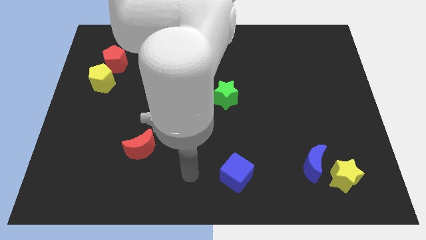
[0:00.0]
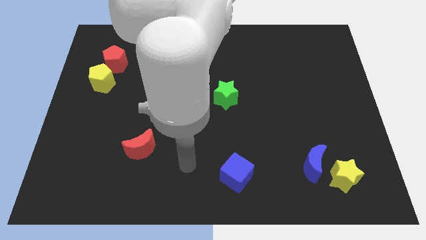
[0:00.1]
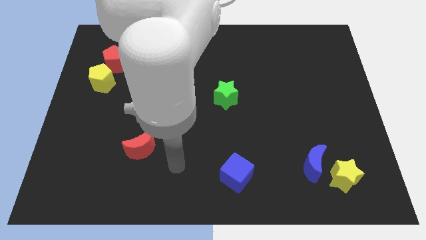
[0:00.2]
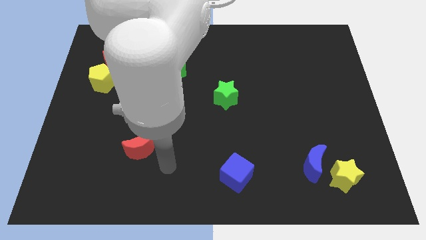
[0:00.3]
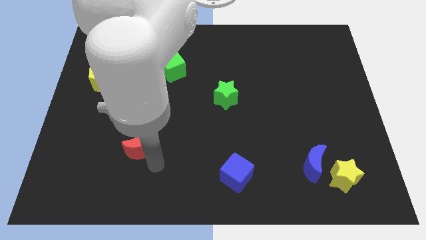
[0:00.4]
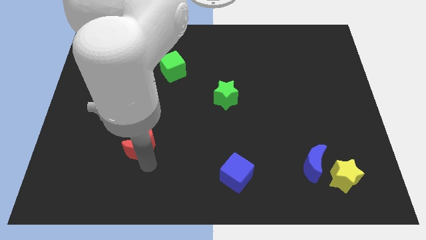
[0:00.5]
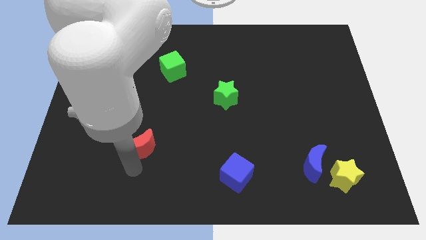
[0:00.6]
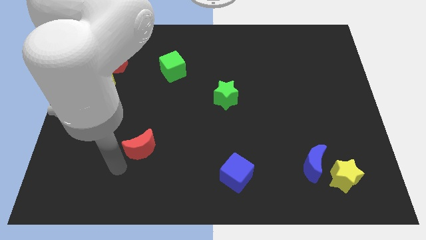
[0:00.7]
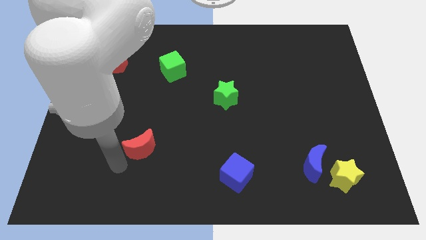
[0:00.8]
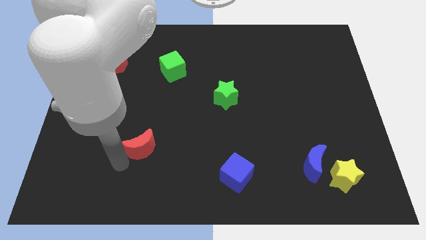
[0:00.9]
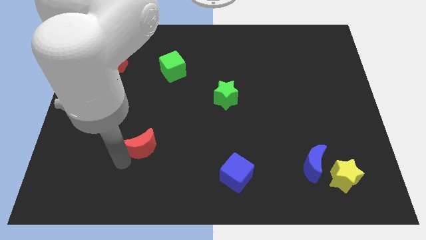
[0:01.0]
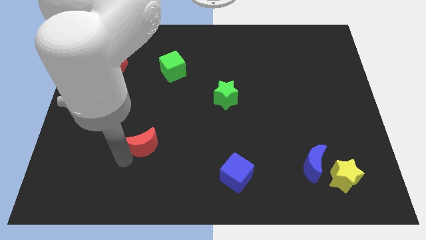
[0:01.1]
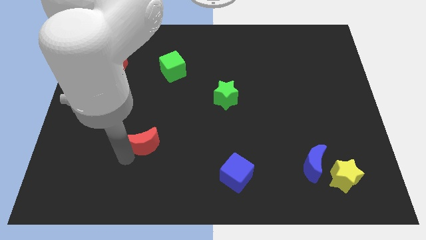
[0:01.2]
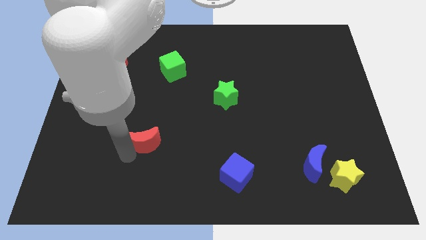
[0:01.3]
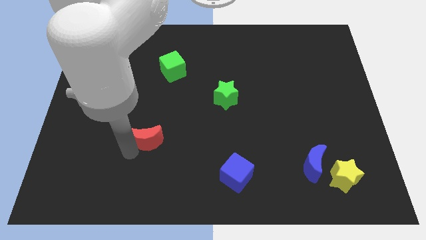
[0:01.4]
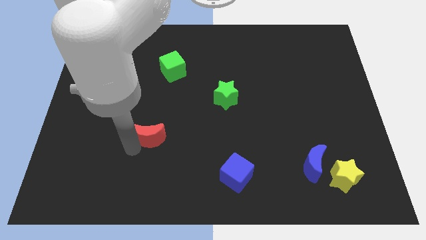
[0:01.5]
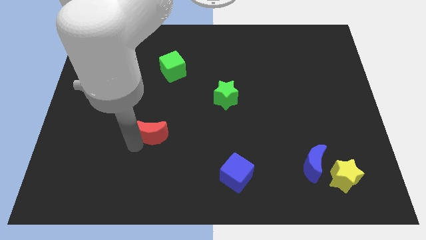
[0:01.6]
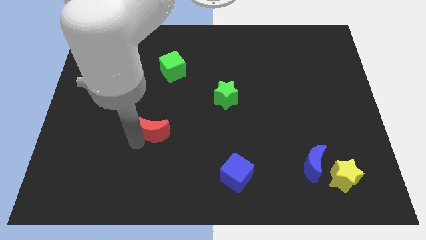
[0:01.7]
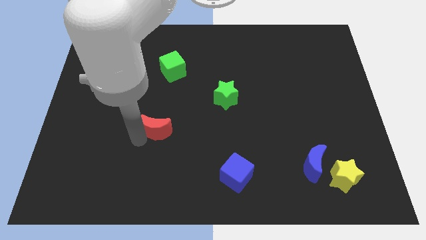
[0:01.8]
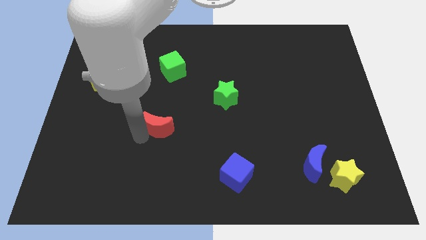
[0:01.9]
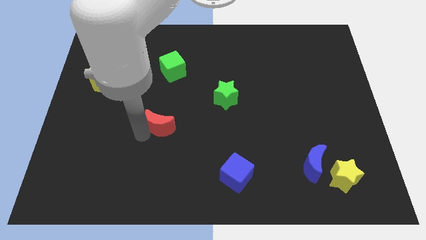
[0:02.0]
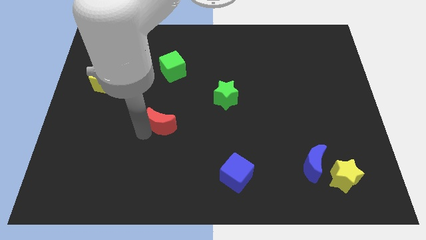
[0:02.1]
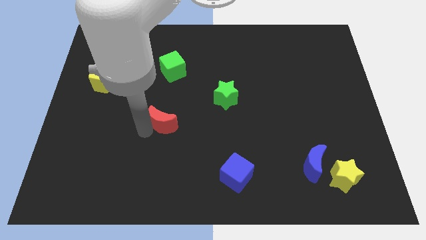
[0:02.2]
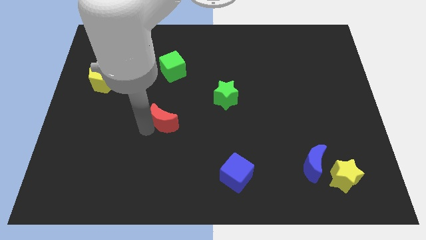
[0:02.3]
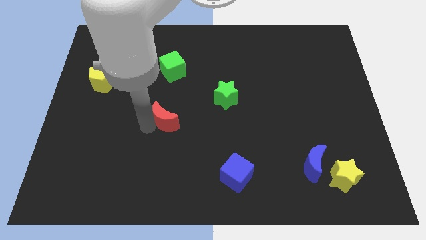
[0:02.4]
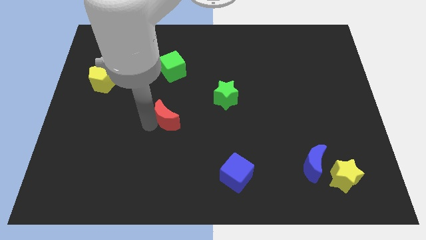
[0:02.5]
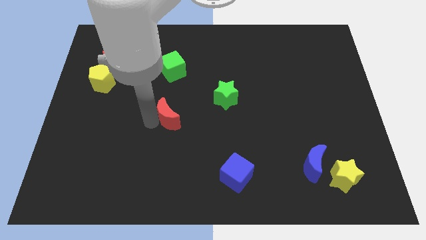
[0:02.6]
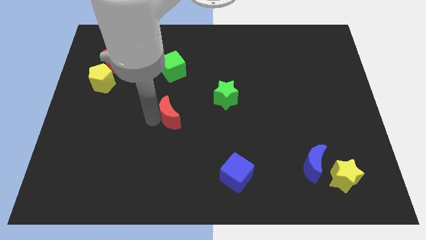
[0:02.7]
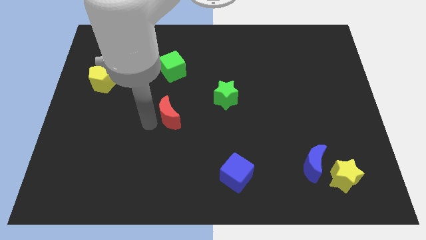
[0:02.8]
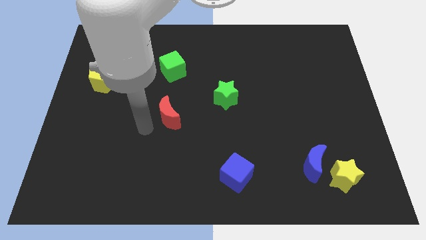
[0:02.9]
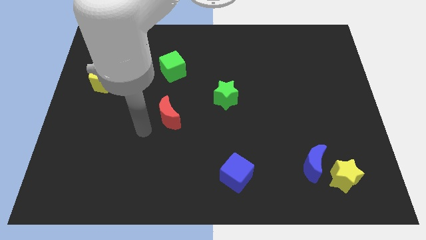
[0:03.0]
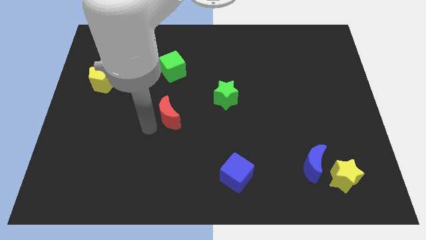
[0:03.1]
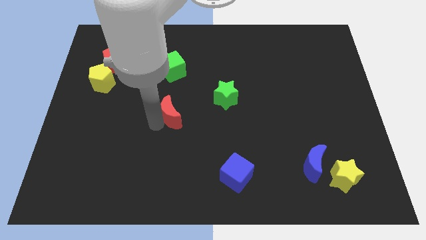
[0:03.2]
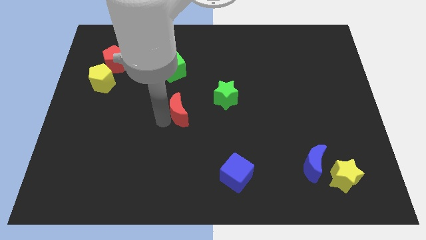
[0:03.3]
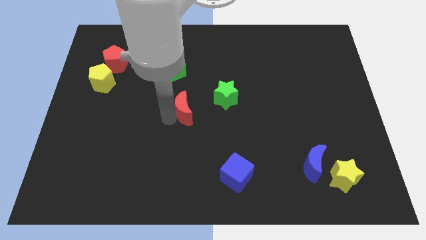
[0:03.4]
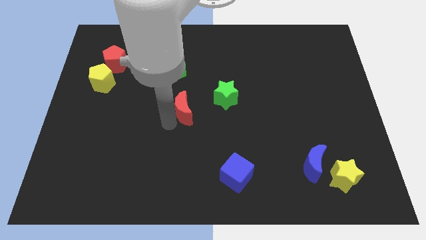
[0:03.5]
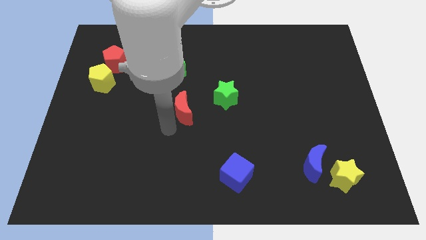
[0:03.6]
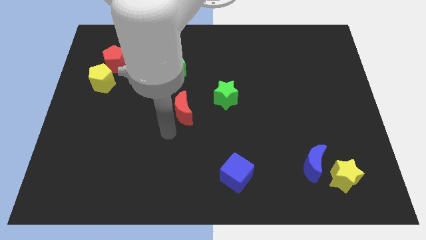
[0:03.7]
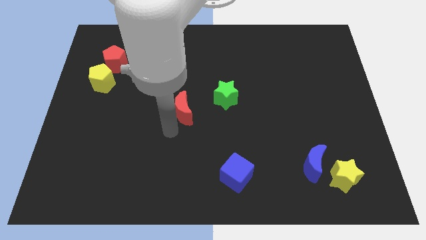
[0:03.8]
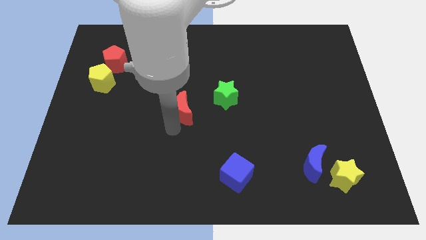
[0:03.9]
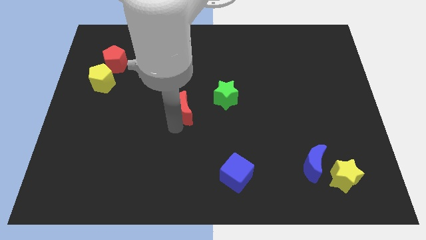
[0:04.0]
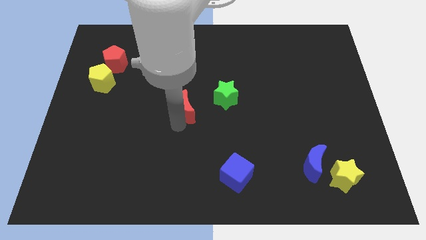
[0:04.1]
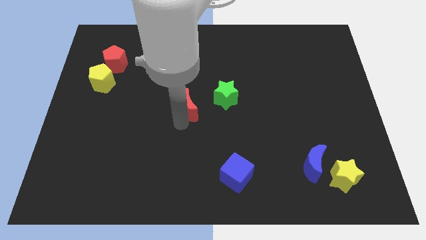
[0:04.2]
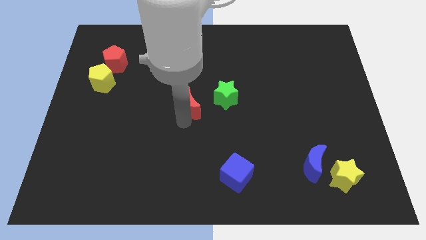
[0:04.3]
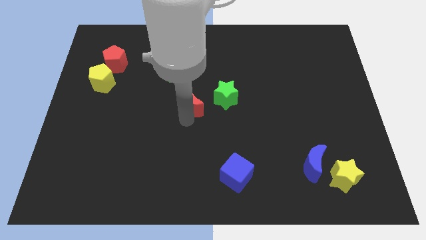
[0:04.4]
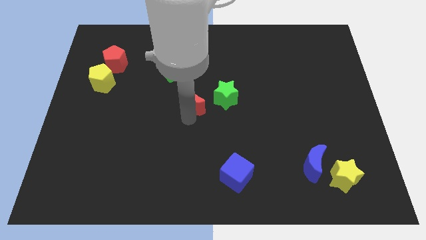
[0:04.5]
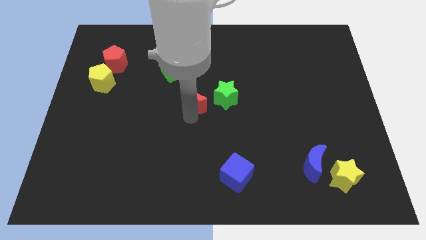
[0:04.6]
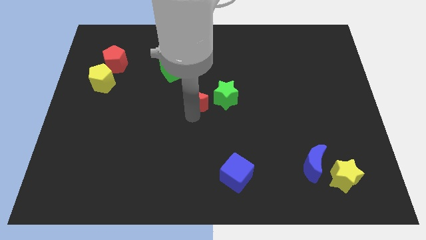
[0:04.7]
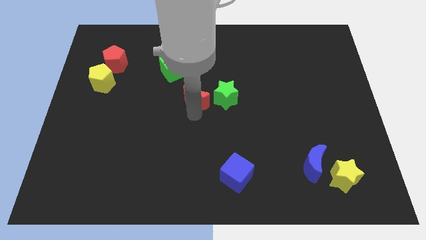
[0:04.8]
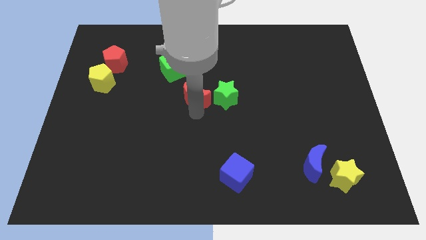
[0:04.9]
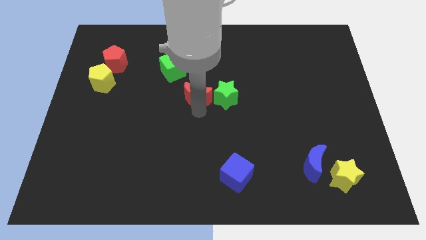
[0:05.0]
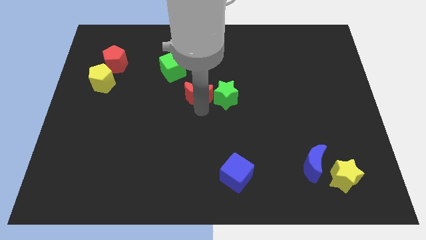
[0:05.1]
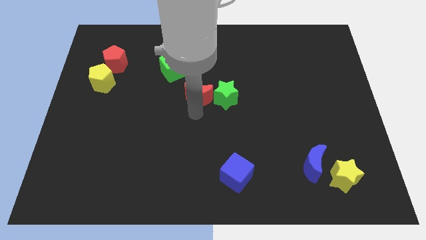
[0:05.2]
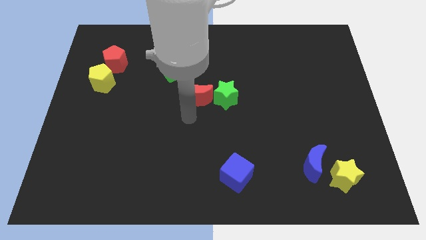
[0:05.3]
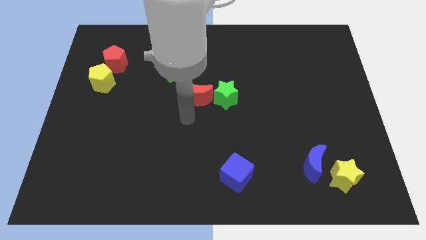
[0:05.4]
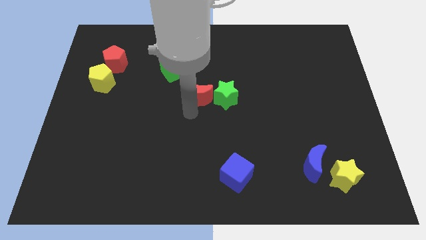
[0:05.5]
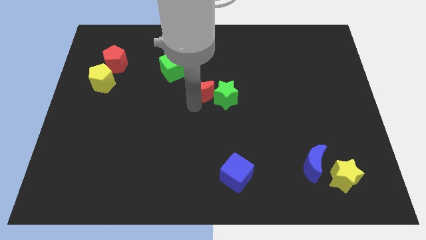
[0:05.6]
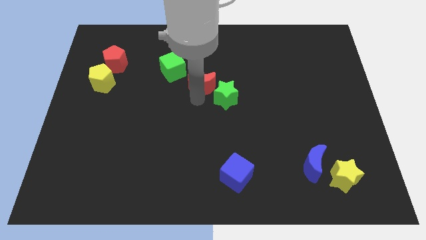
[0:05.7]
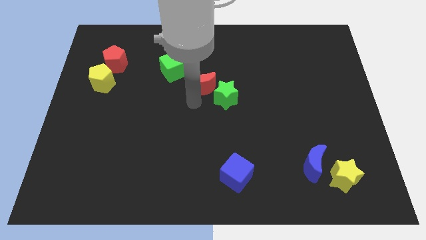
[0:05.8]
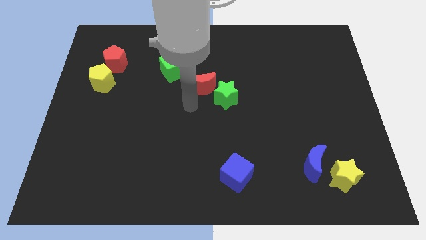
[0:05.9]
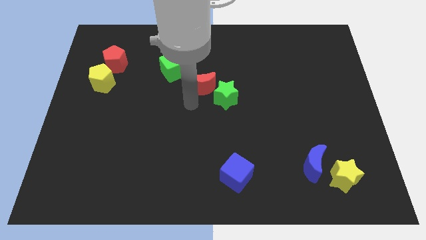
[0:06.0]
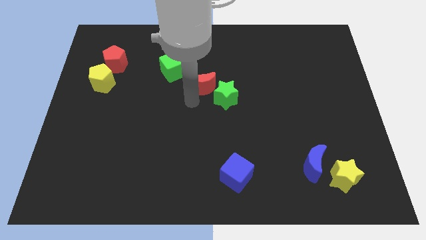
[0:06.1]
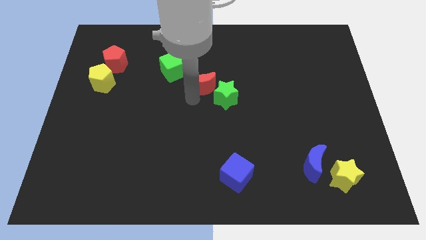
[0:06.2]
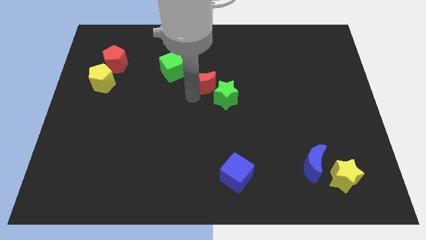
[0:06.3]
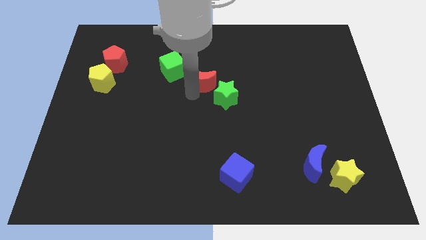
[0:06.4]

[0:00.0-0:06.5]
move the red moon to the right side of the green cube

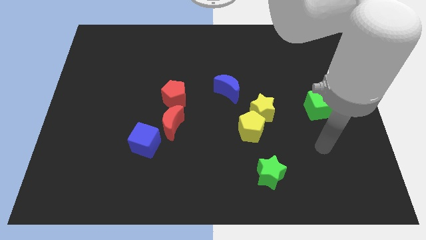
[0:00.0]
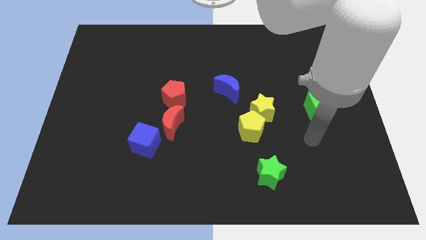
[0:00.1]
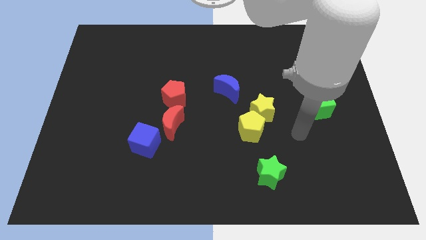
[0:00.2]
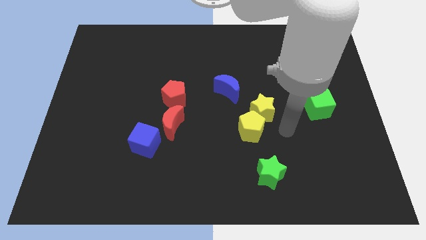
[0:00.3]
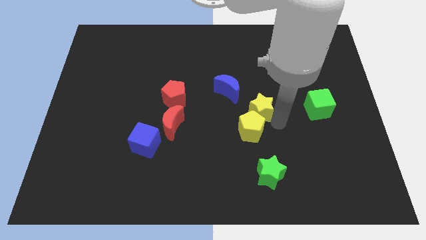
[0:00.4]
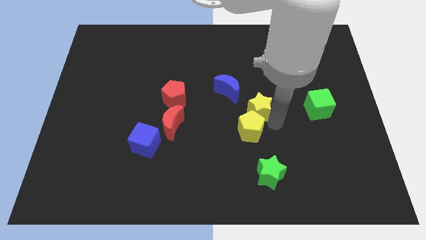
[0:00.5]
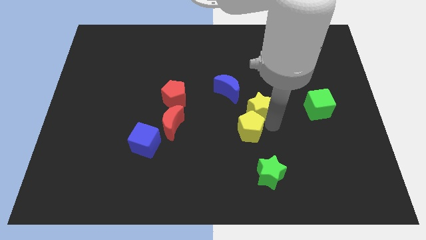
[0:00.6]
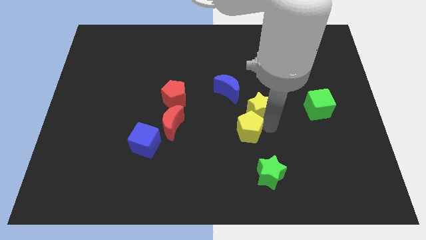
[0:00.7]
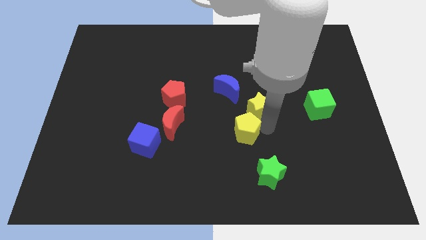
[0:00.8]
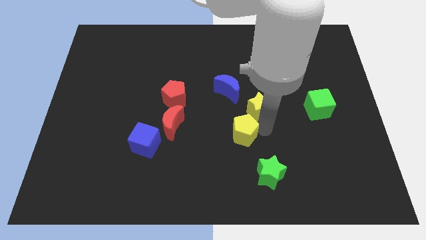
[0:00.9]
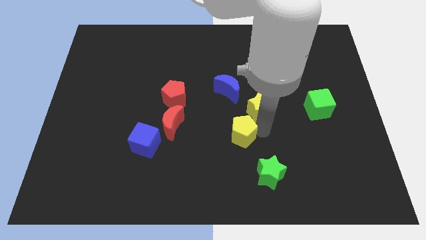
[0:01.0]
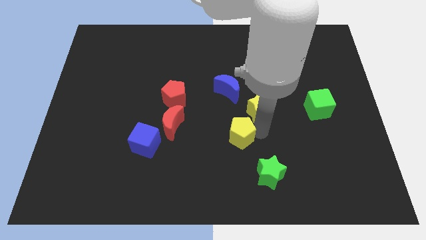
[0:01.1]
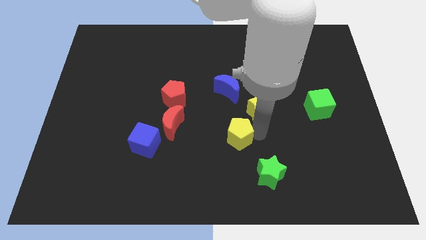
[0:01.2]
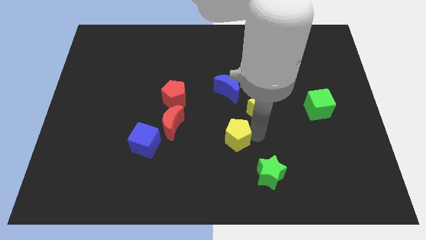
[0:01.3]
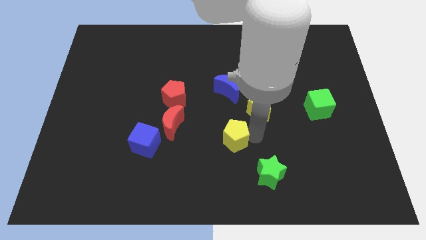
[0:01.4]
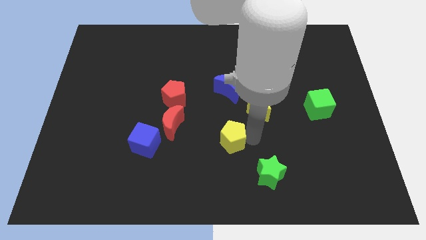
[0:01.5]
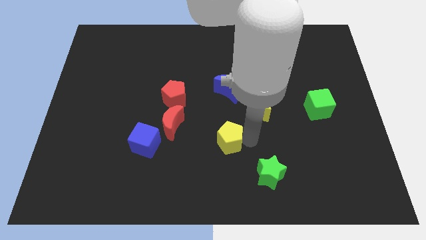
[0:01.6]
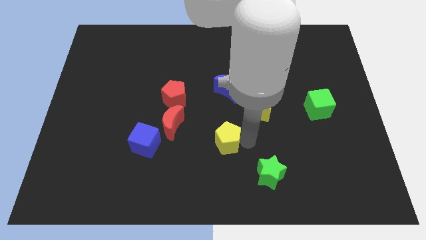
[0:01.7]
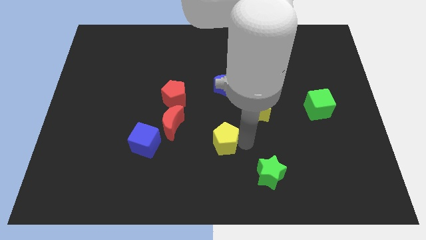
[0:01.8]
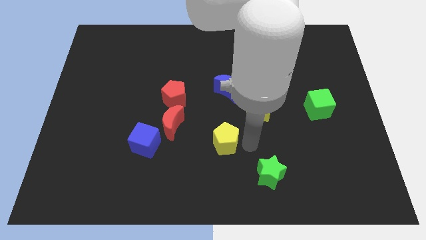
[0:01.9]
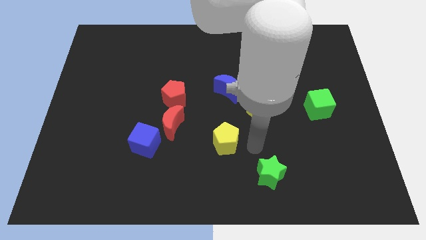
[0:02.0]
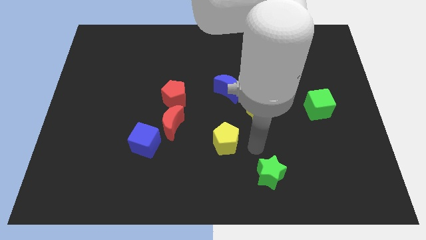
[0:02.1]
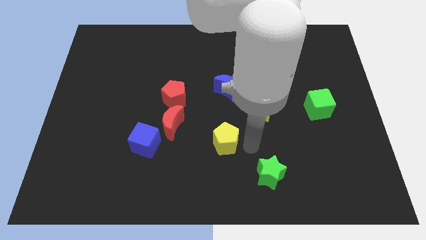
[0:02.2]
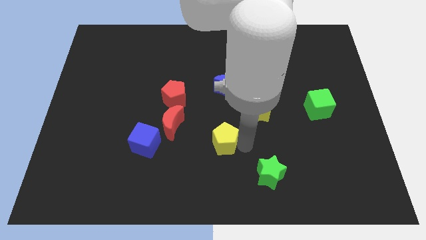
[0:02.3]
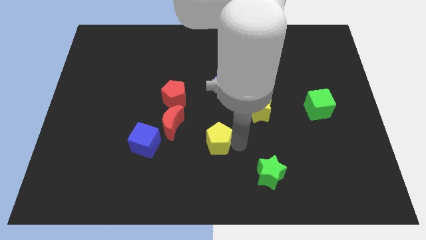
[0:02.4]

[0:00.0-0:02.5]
push the yellow pentagon diagonally down and to the right of the red moon
